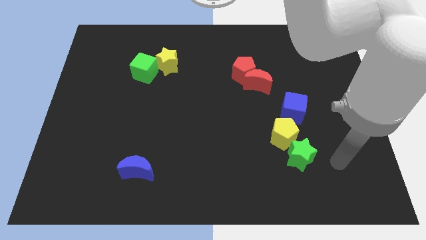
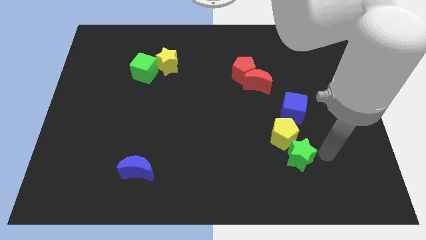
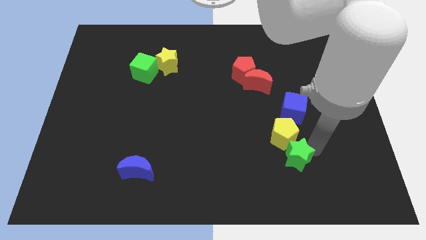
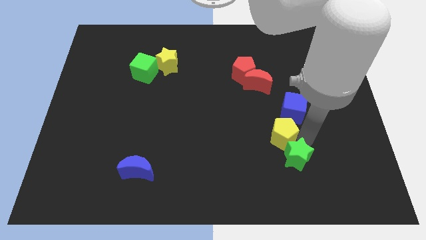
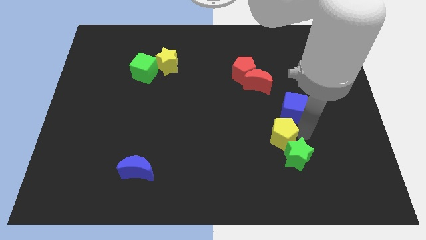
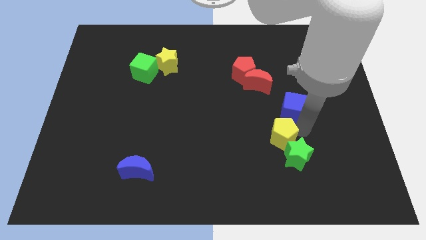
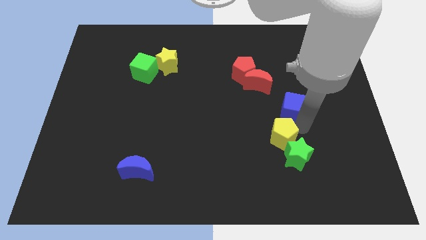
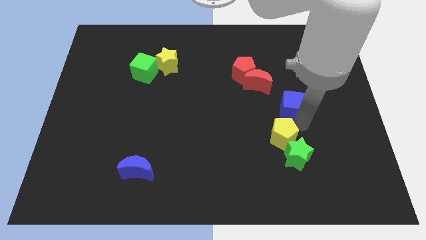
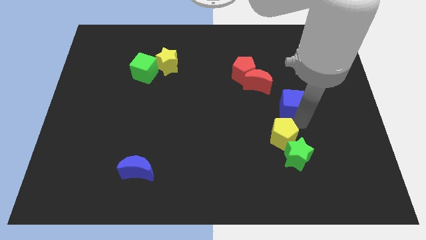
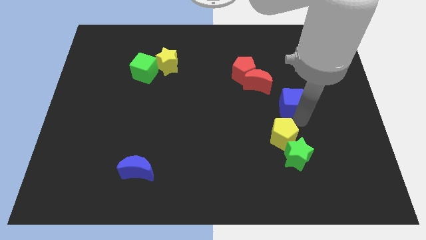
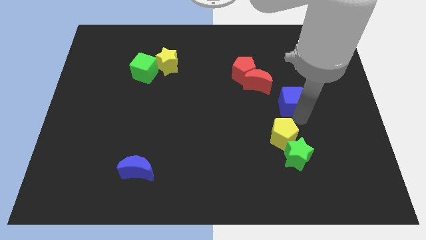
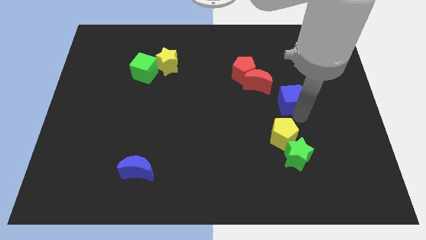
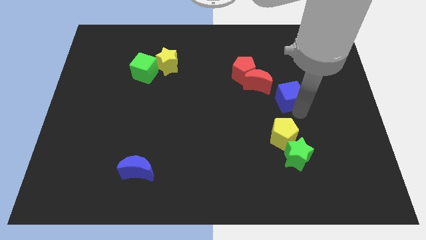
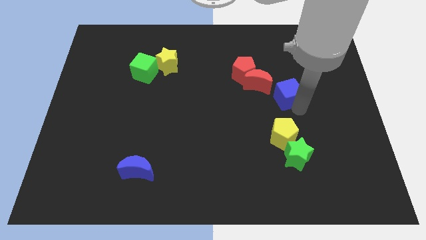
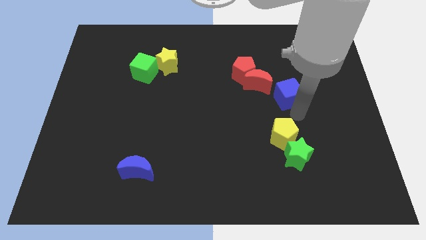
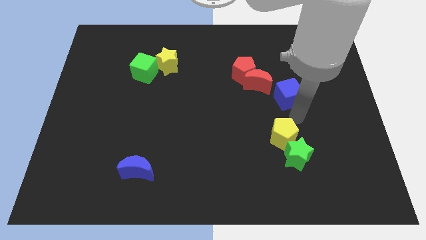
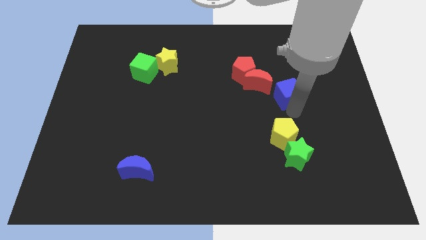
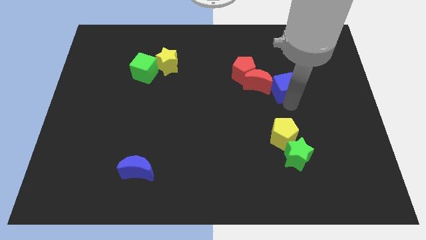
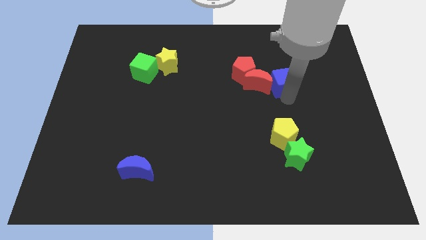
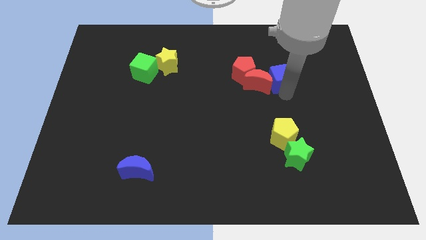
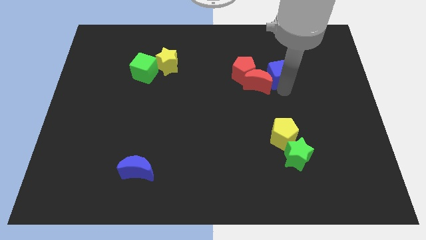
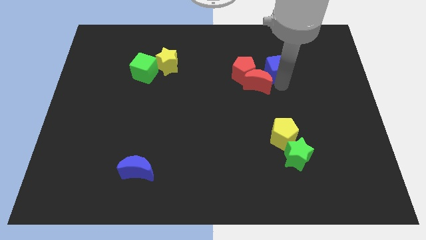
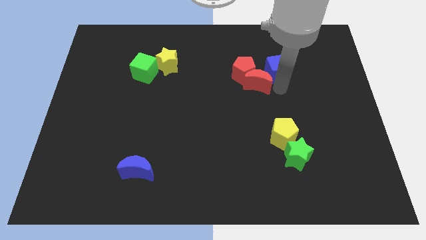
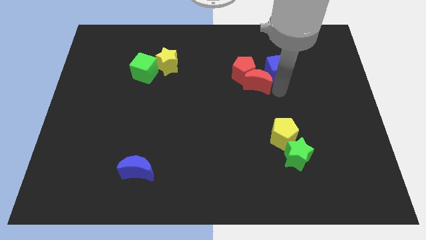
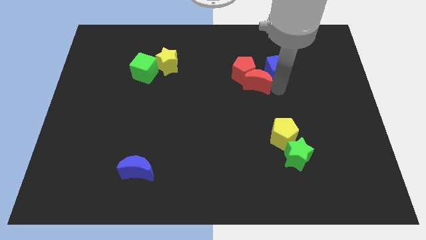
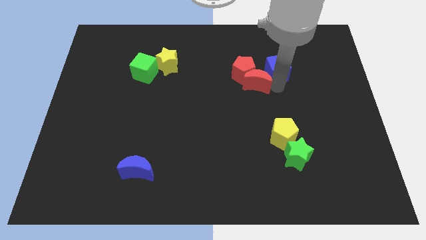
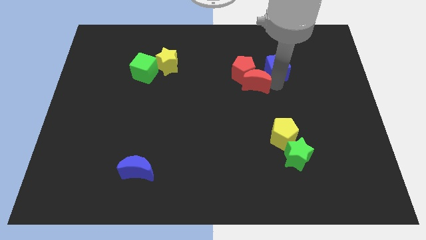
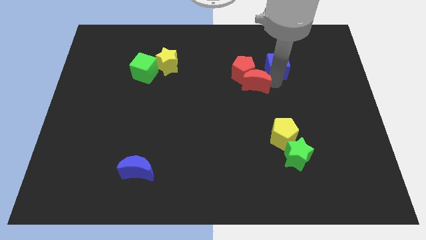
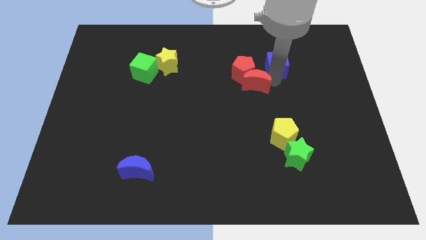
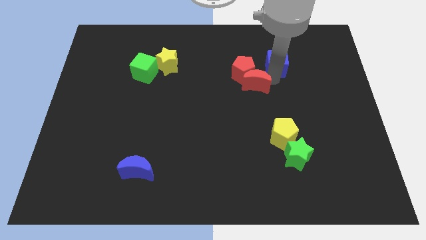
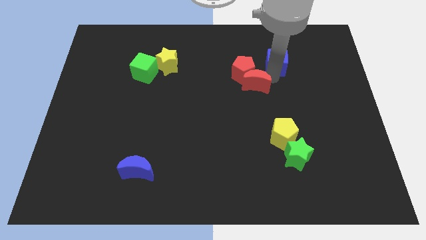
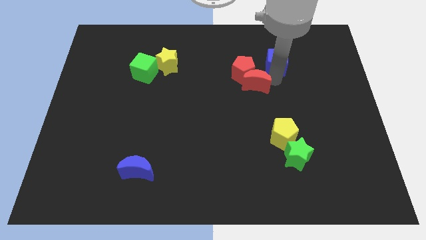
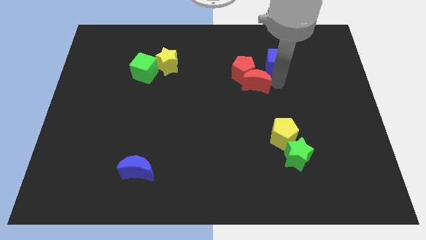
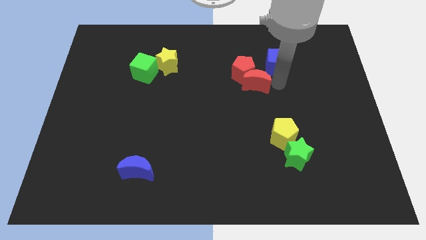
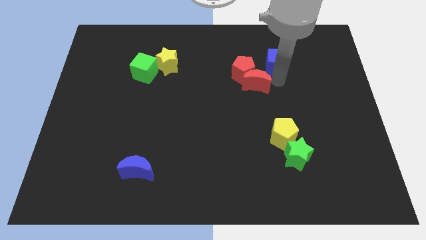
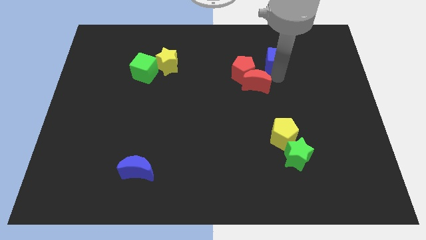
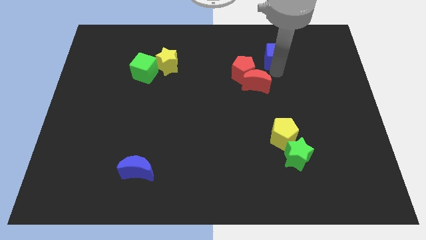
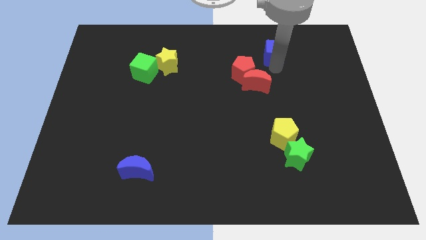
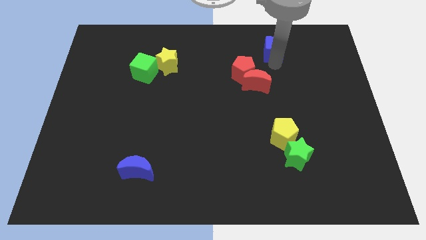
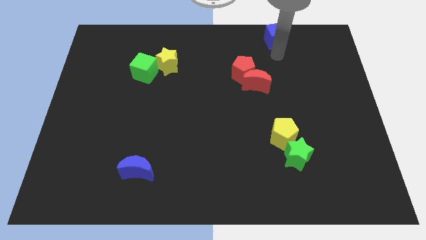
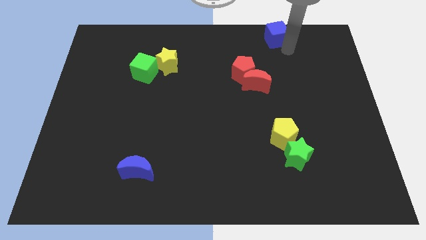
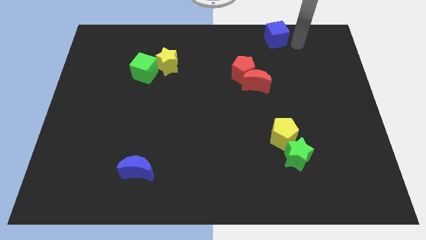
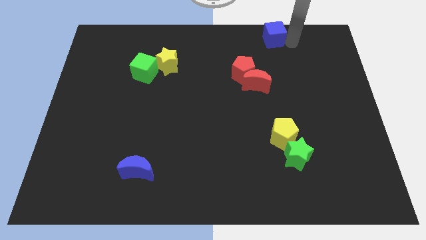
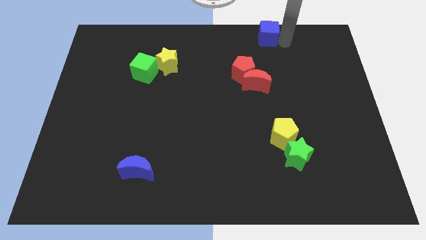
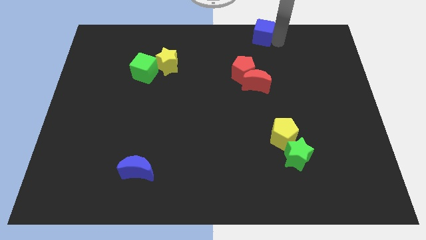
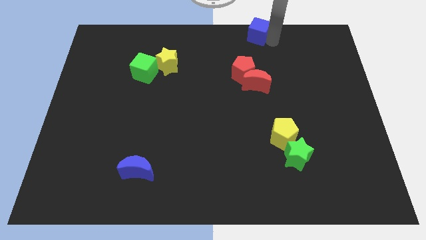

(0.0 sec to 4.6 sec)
push the blue cube to the towards your base

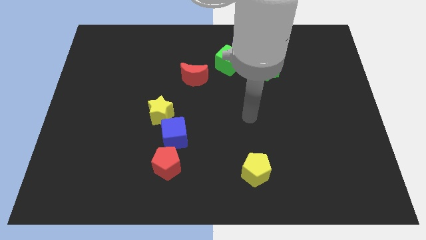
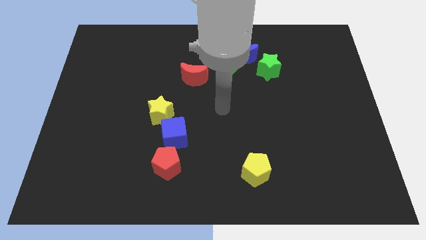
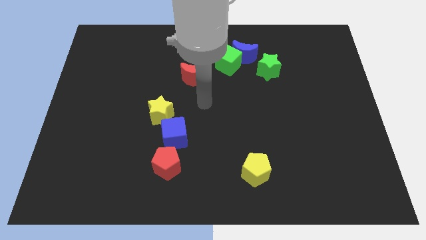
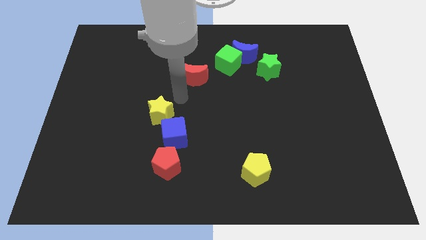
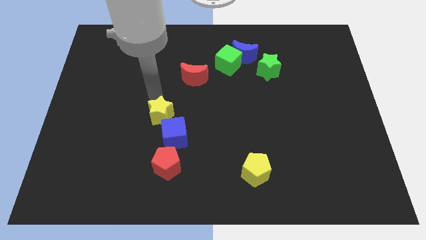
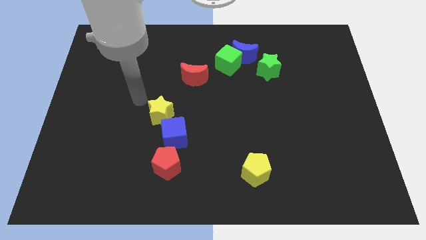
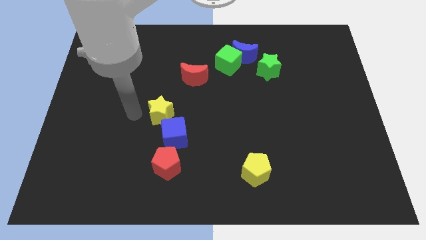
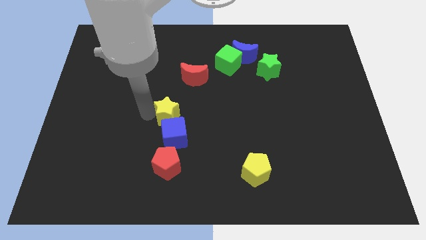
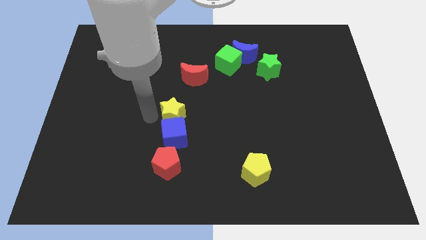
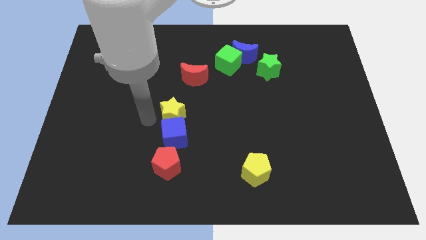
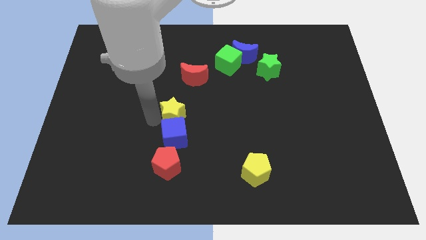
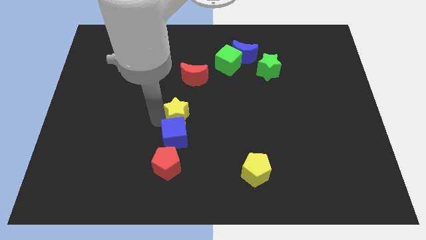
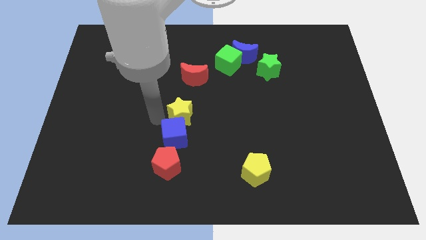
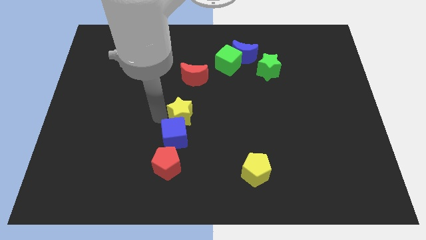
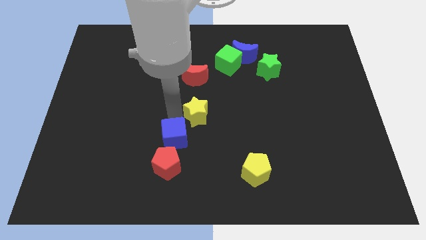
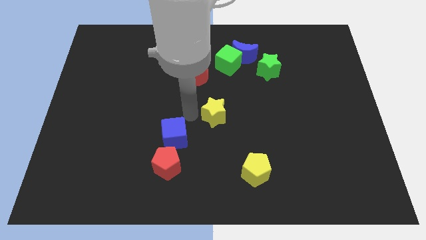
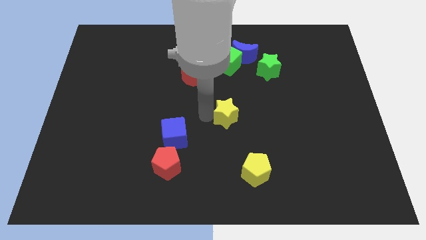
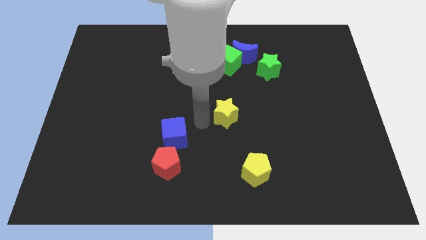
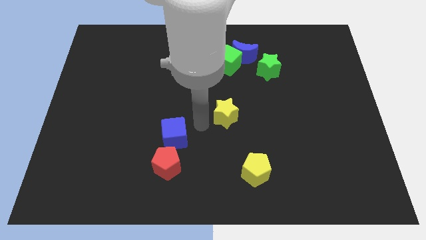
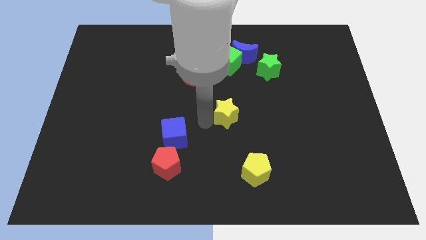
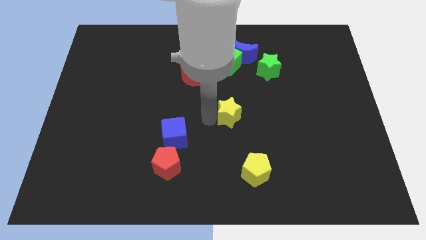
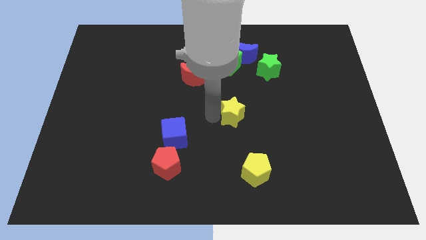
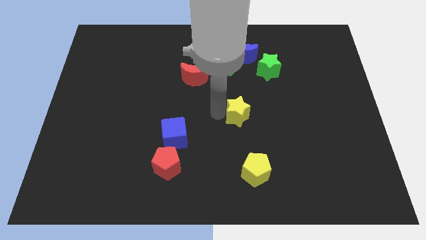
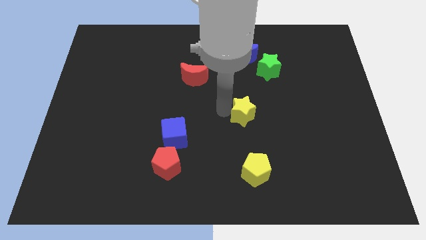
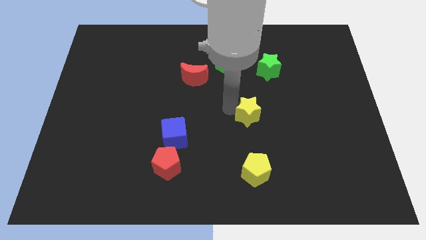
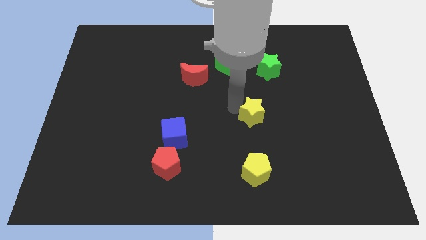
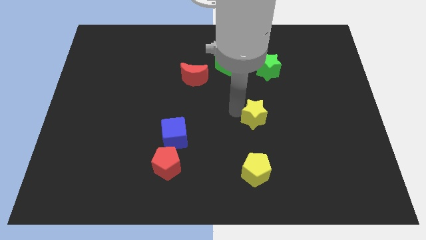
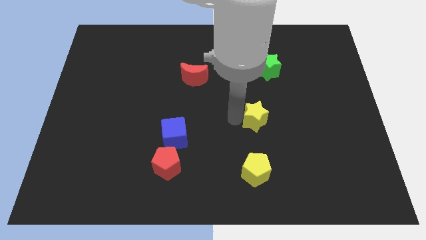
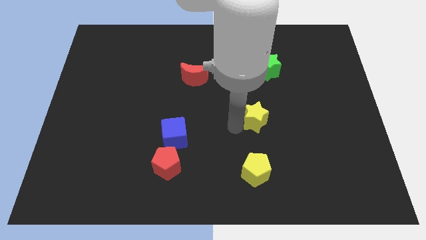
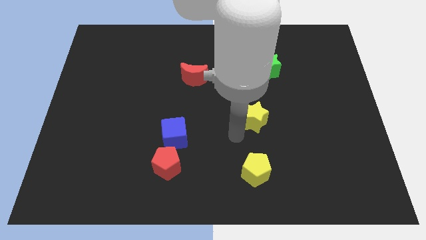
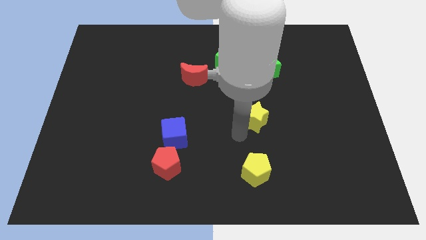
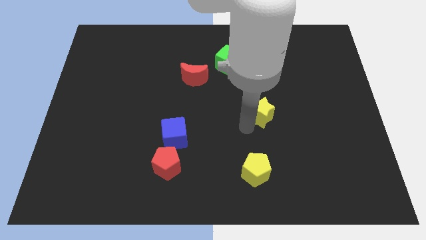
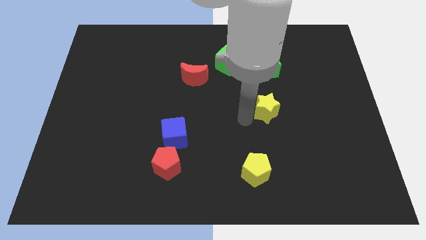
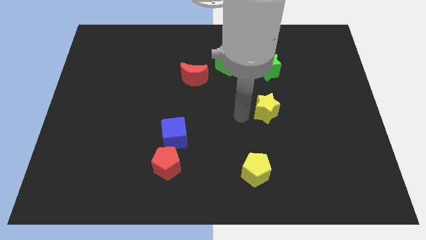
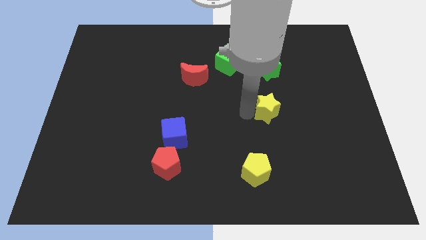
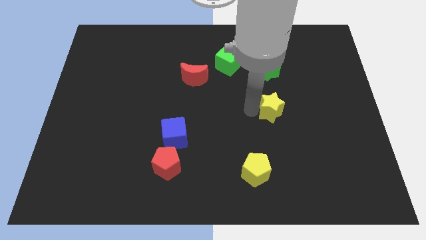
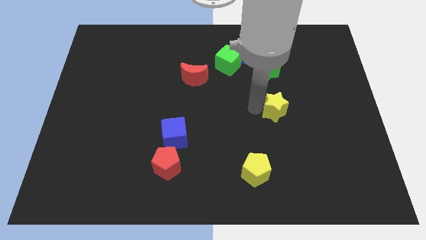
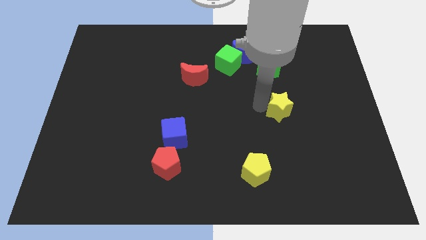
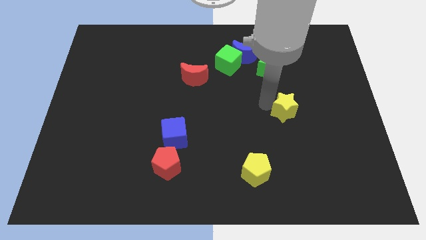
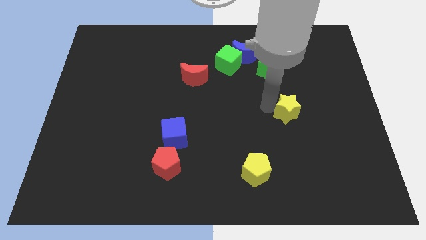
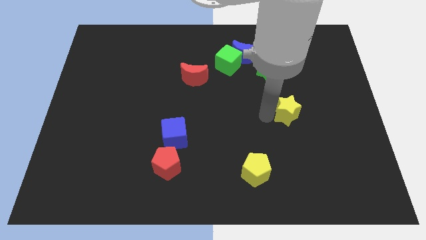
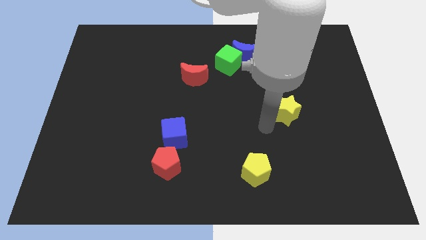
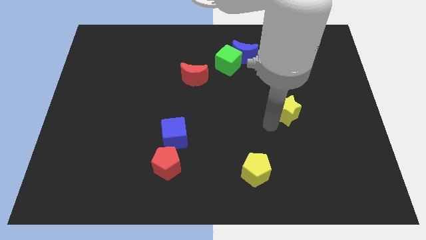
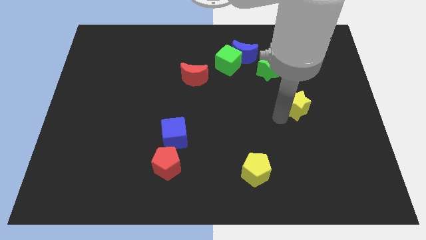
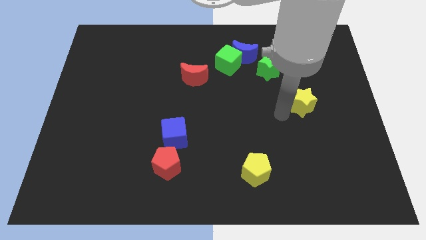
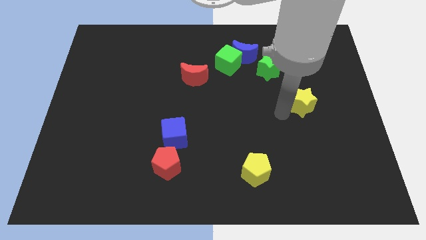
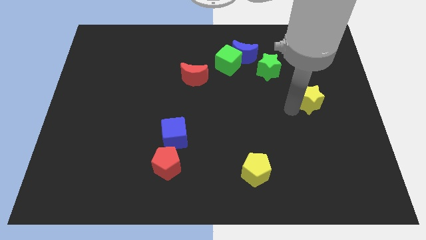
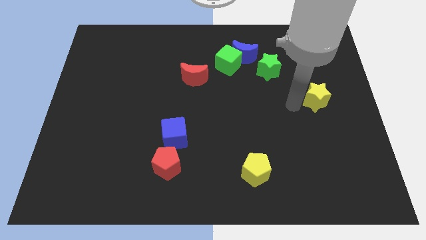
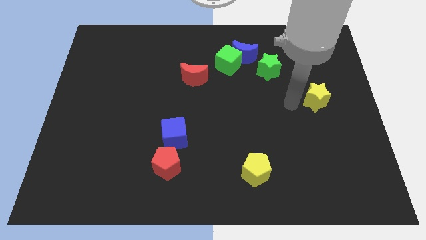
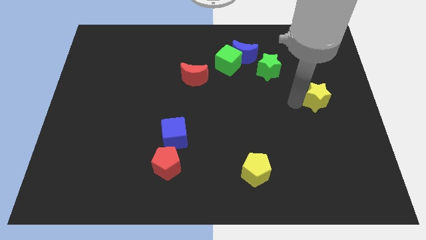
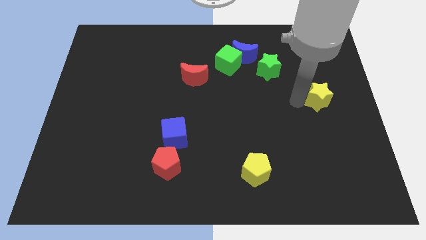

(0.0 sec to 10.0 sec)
move the yellow star to the center right
